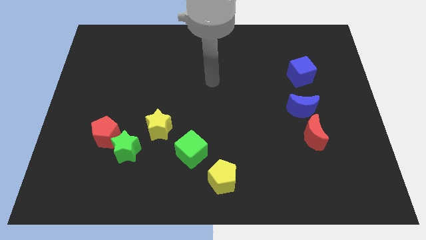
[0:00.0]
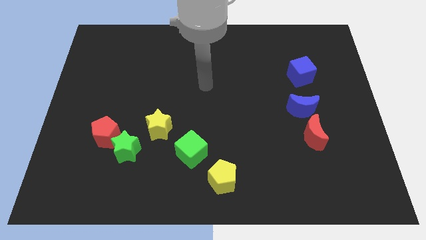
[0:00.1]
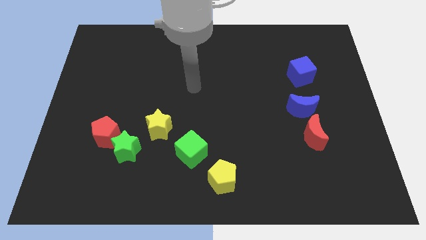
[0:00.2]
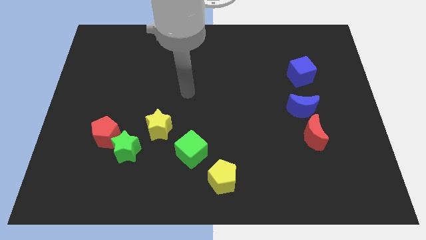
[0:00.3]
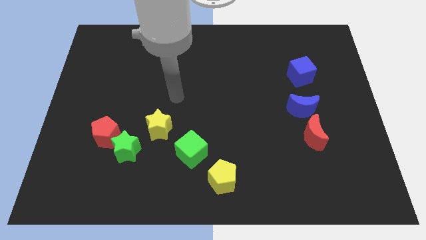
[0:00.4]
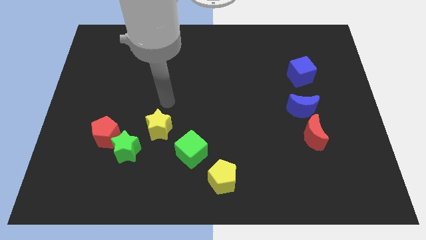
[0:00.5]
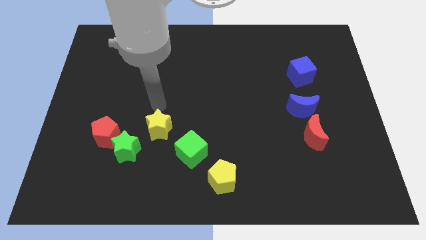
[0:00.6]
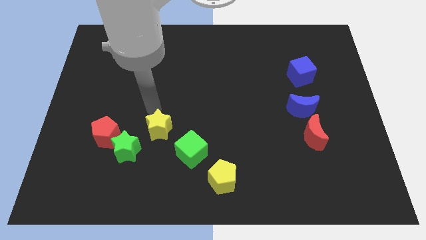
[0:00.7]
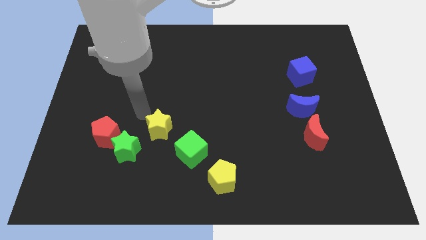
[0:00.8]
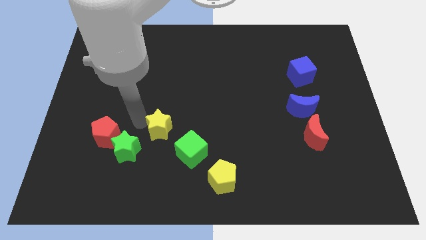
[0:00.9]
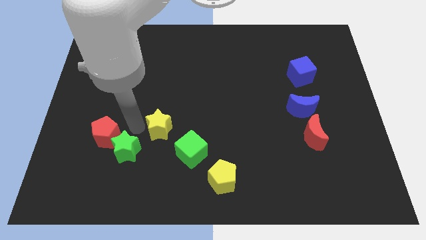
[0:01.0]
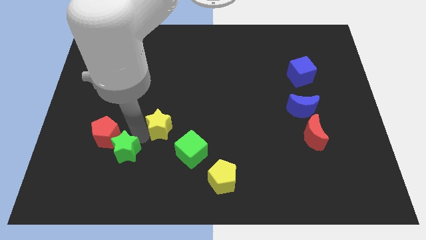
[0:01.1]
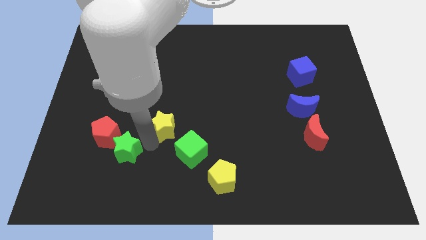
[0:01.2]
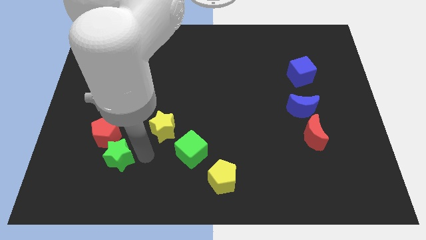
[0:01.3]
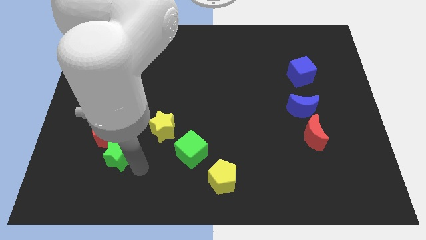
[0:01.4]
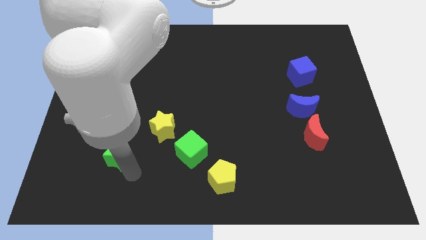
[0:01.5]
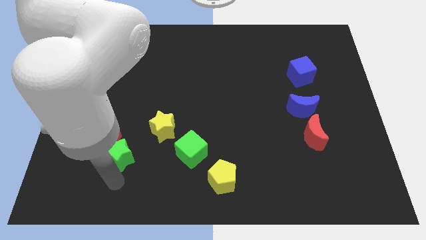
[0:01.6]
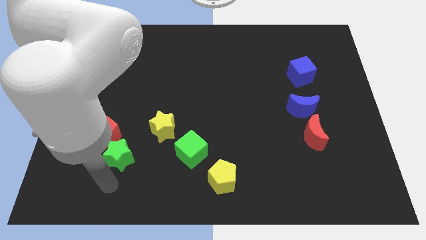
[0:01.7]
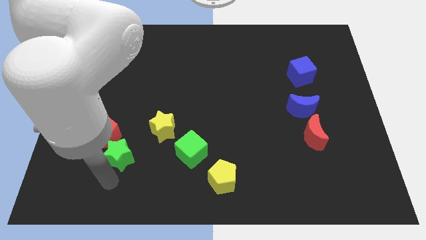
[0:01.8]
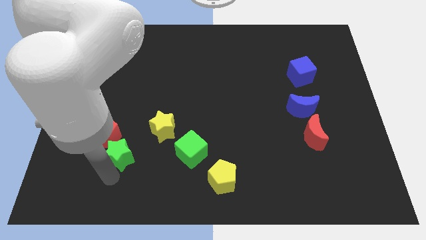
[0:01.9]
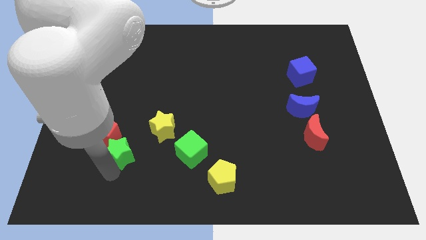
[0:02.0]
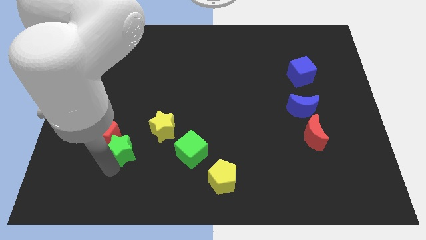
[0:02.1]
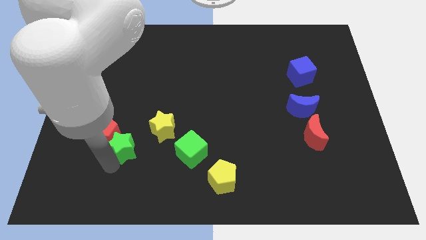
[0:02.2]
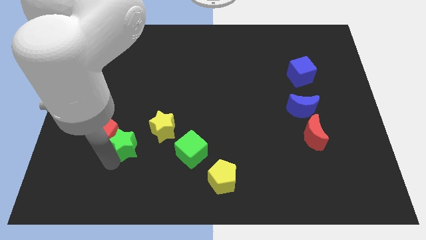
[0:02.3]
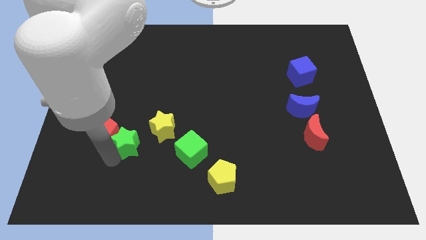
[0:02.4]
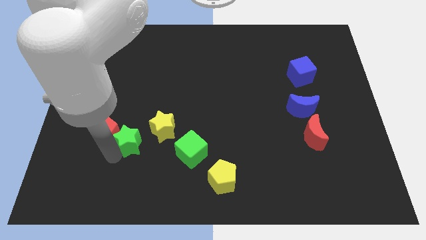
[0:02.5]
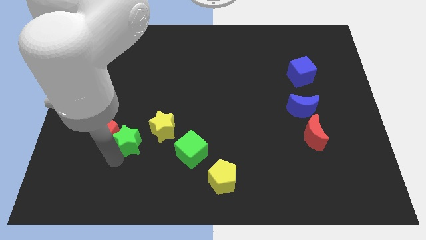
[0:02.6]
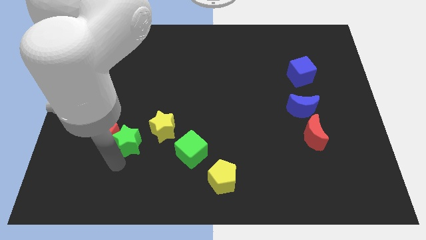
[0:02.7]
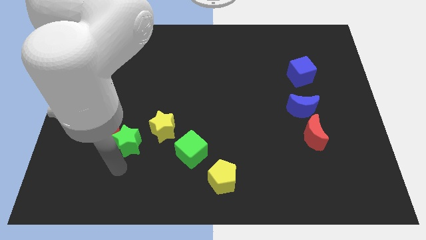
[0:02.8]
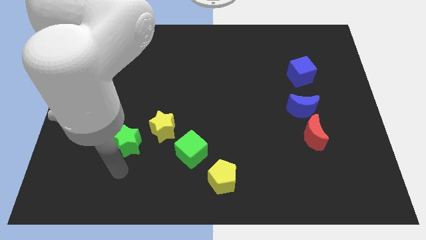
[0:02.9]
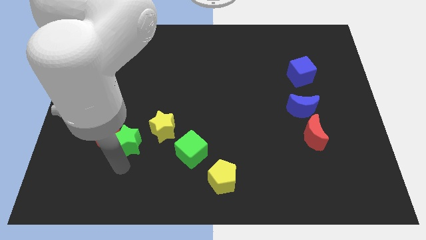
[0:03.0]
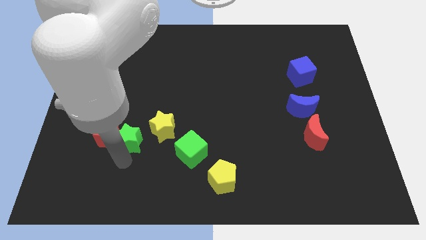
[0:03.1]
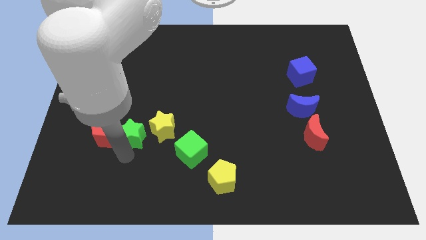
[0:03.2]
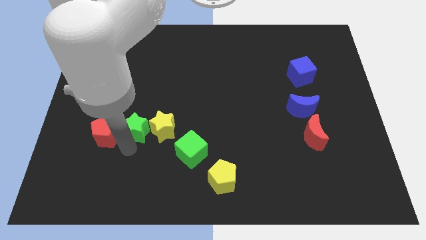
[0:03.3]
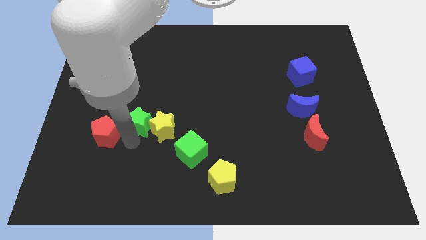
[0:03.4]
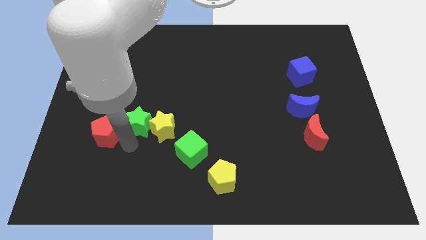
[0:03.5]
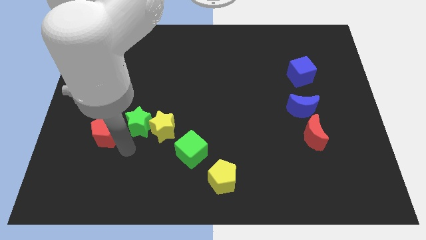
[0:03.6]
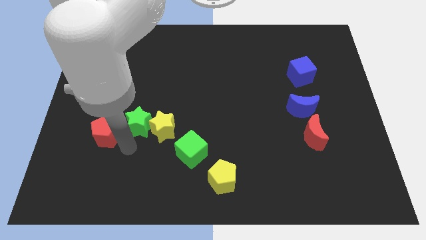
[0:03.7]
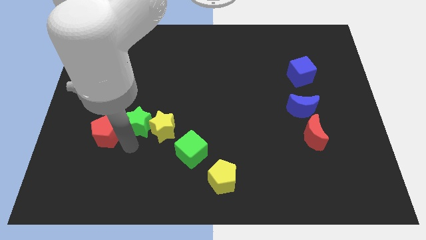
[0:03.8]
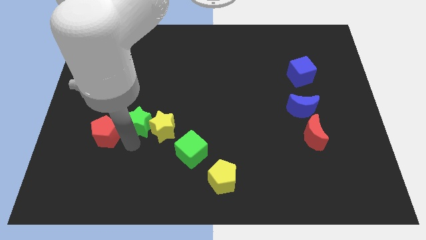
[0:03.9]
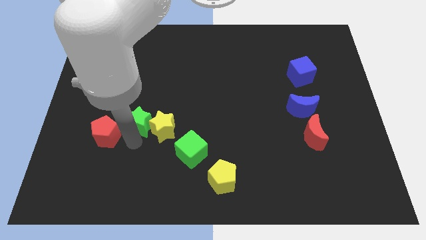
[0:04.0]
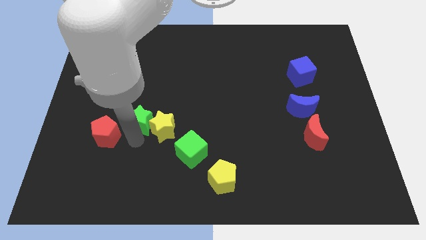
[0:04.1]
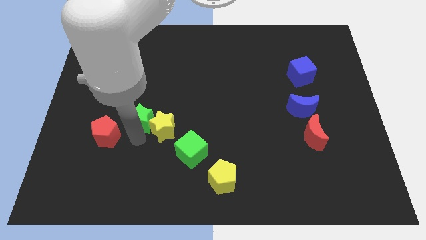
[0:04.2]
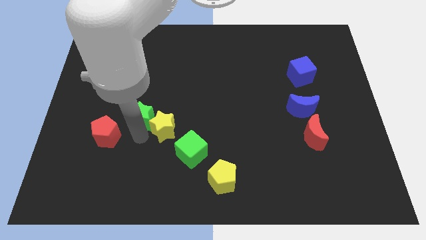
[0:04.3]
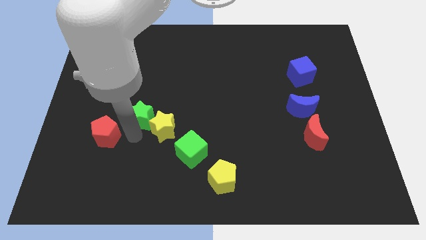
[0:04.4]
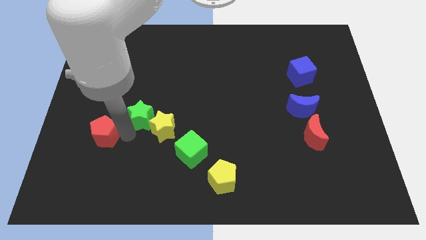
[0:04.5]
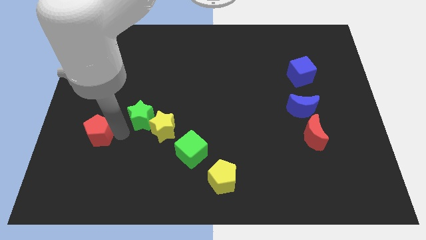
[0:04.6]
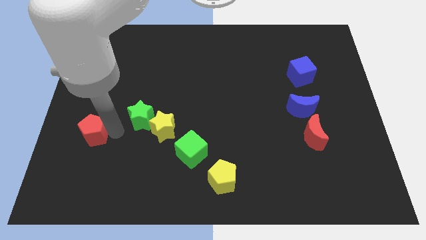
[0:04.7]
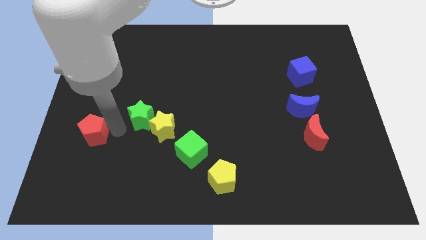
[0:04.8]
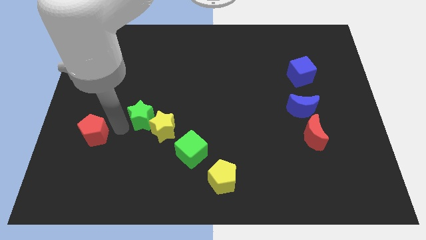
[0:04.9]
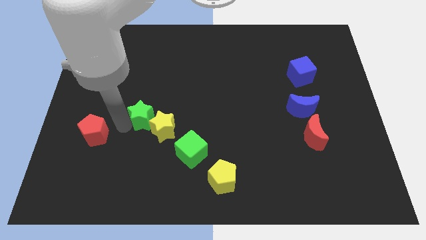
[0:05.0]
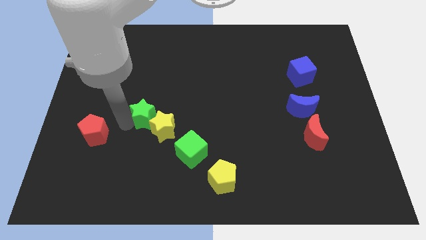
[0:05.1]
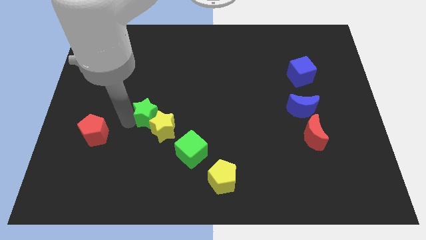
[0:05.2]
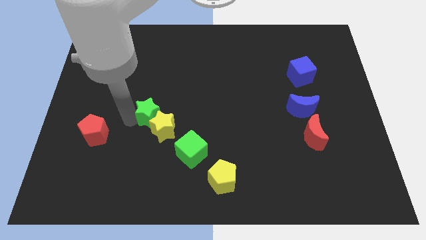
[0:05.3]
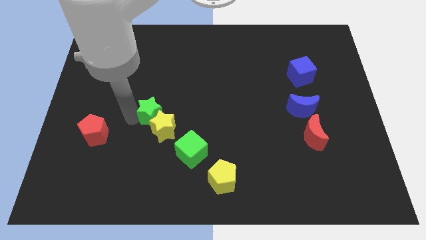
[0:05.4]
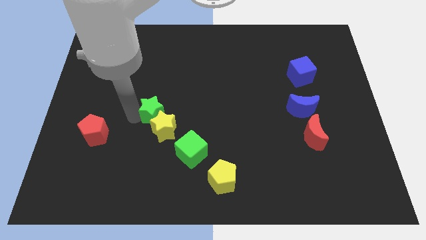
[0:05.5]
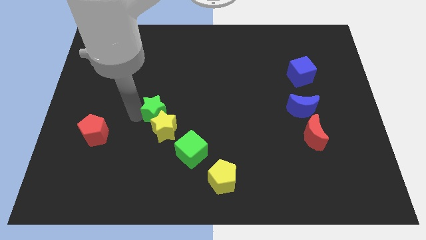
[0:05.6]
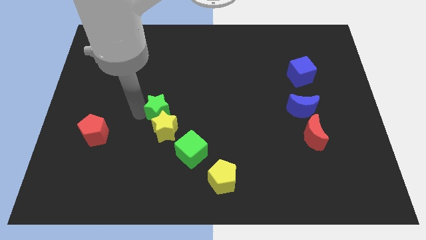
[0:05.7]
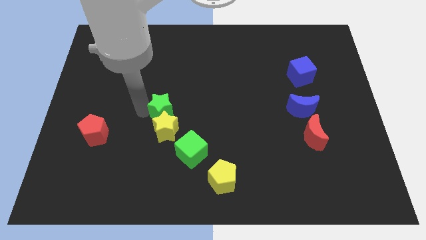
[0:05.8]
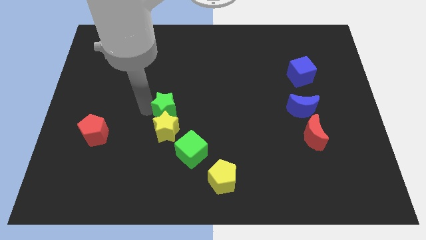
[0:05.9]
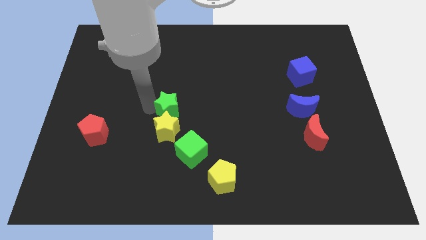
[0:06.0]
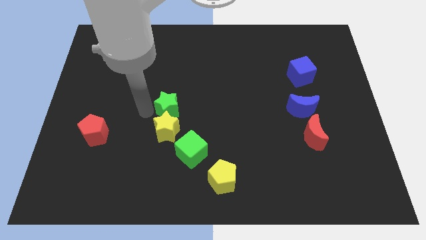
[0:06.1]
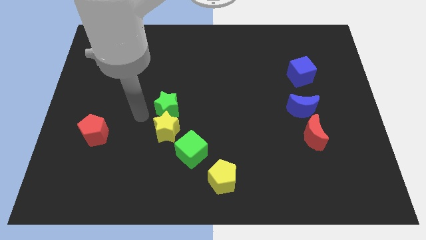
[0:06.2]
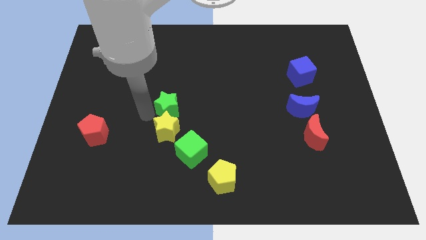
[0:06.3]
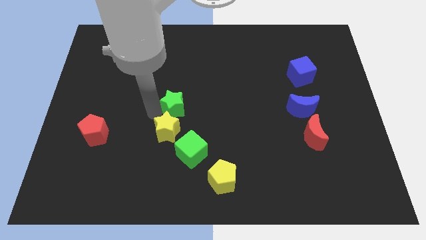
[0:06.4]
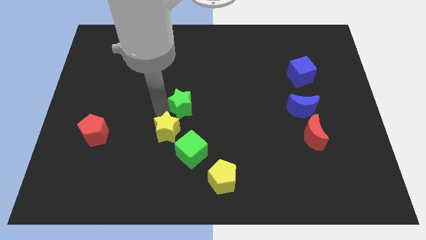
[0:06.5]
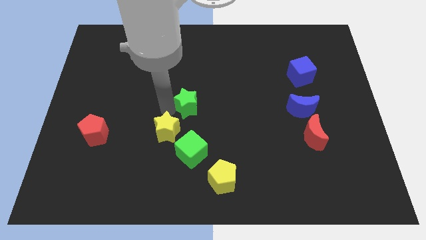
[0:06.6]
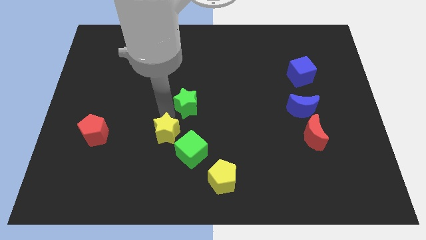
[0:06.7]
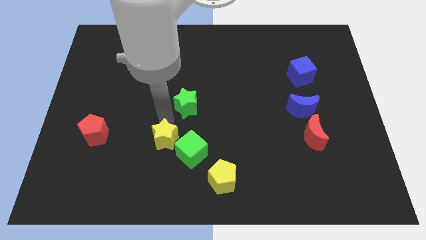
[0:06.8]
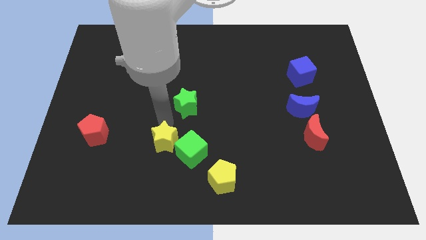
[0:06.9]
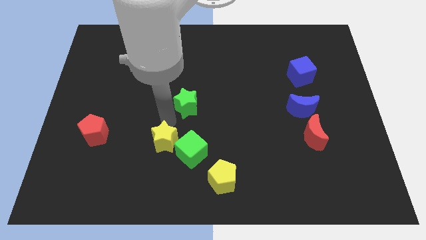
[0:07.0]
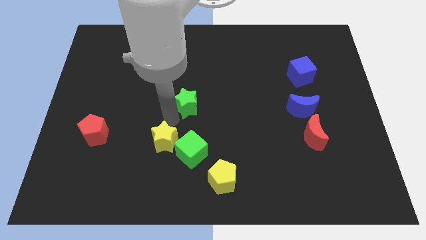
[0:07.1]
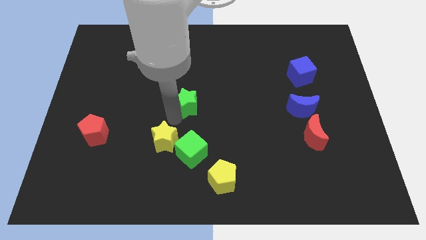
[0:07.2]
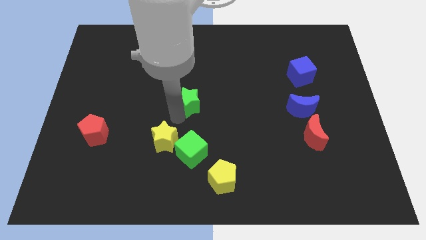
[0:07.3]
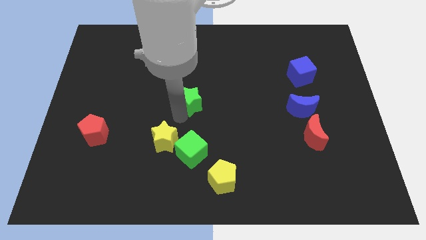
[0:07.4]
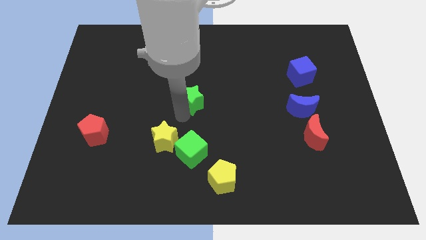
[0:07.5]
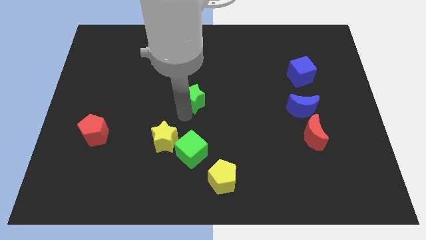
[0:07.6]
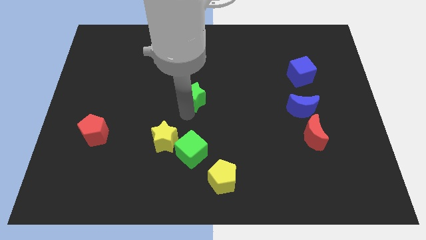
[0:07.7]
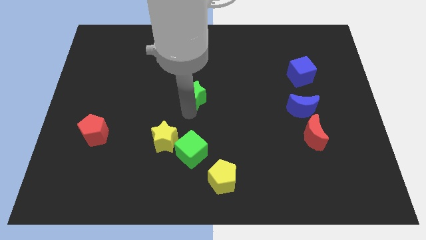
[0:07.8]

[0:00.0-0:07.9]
move the green star diagonally up and to the right

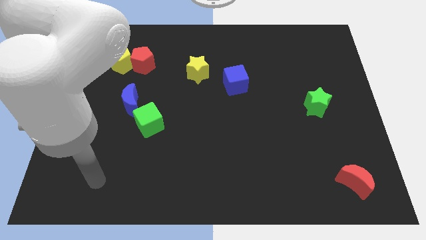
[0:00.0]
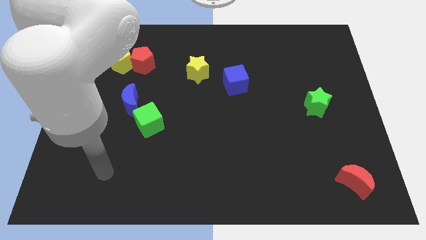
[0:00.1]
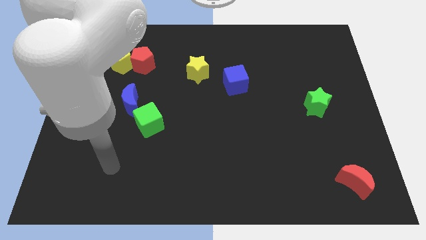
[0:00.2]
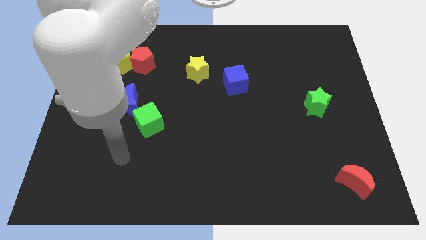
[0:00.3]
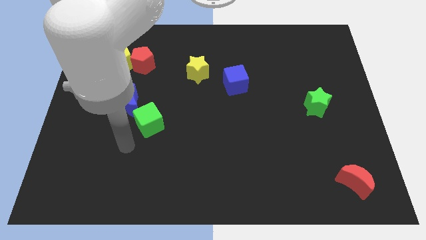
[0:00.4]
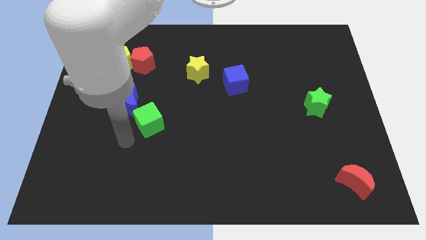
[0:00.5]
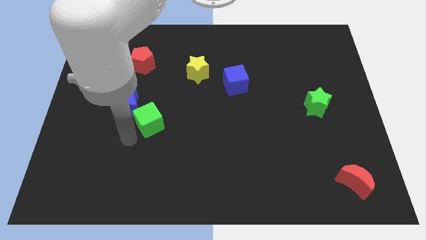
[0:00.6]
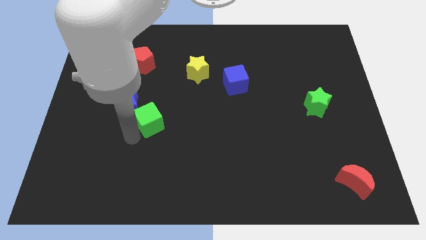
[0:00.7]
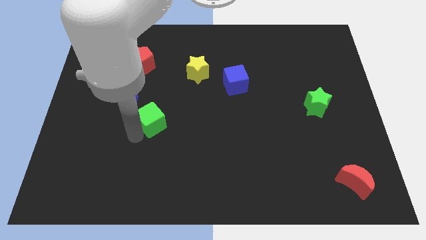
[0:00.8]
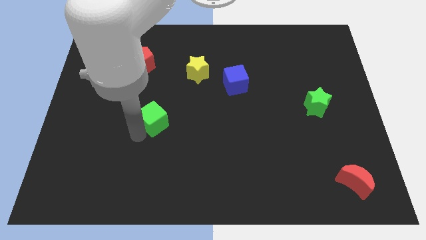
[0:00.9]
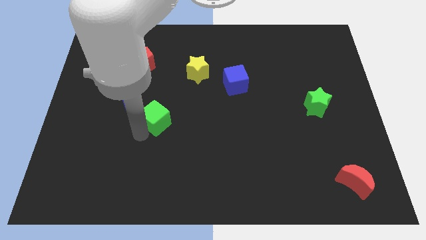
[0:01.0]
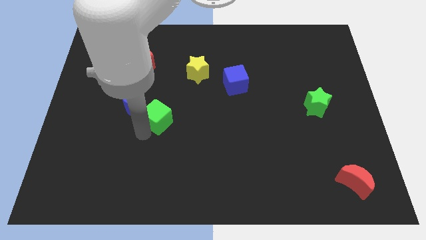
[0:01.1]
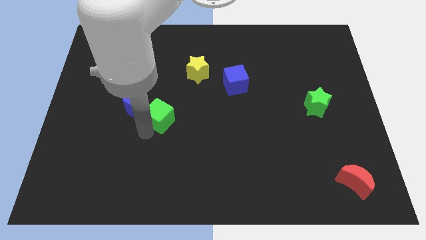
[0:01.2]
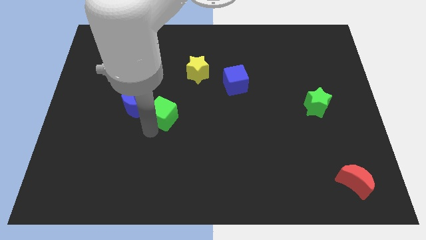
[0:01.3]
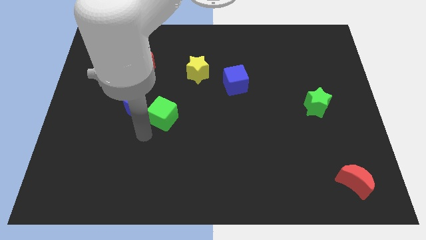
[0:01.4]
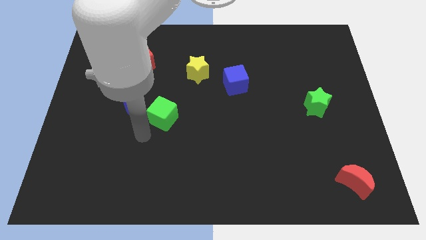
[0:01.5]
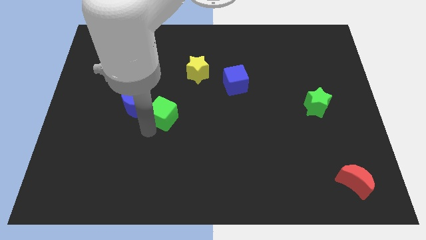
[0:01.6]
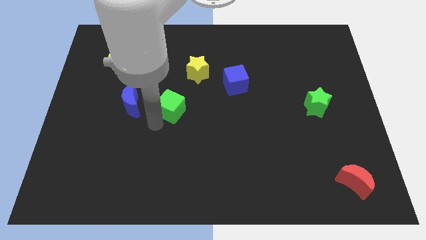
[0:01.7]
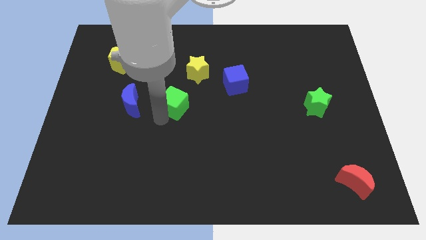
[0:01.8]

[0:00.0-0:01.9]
slightly slide the green cube upwards and to the right
